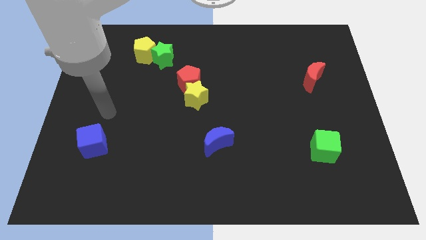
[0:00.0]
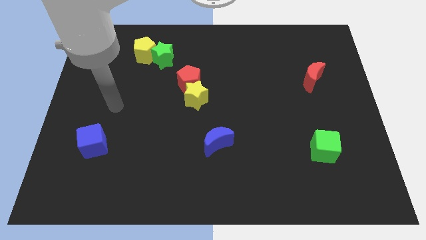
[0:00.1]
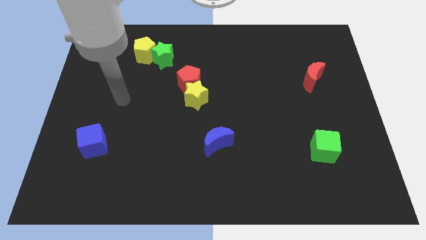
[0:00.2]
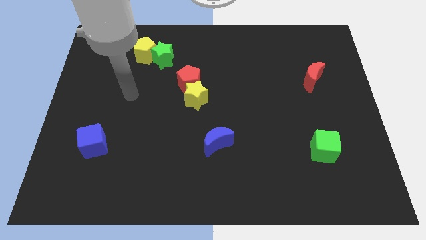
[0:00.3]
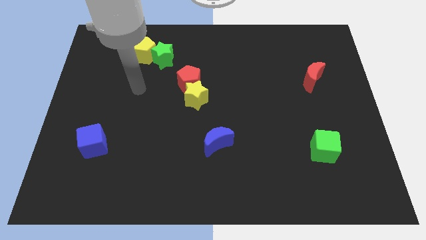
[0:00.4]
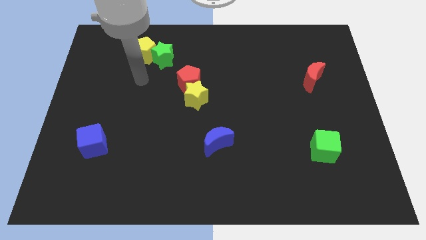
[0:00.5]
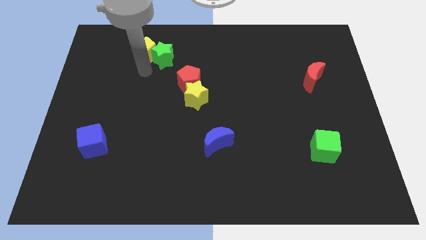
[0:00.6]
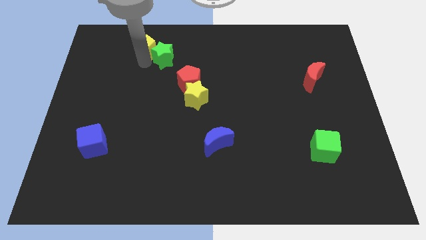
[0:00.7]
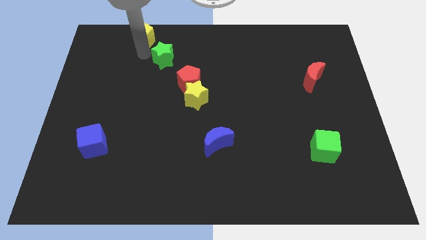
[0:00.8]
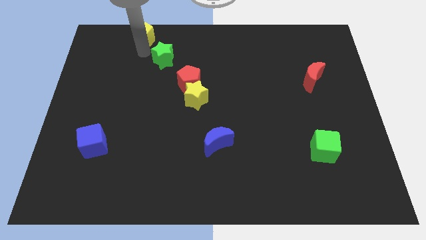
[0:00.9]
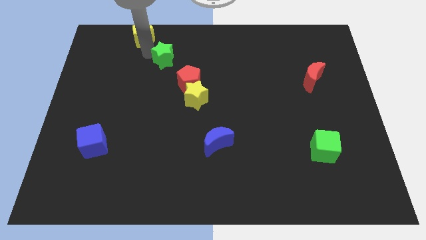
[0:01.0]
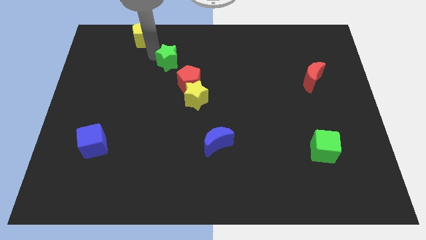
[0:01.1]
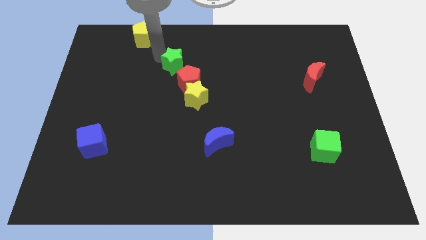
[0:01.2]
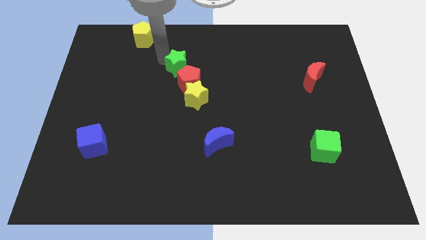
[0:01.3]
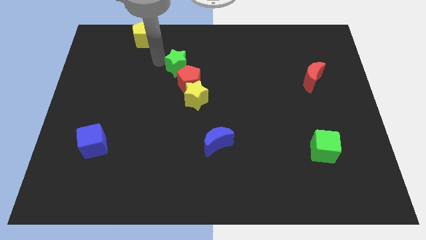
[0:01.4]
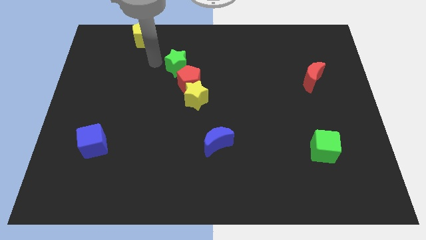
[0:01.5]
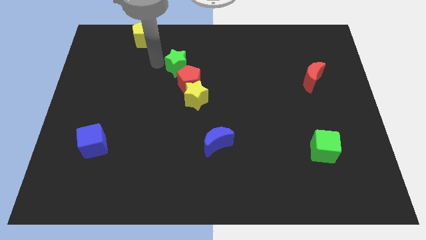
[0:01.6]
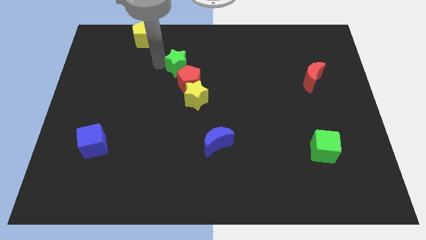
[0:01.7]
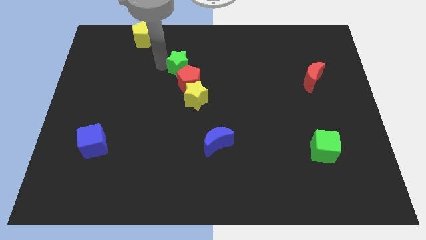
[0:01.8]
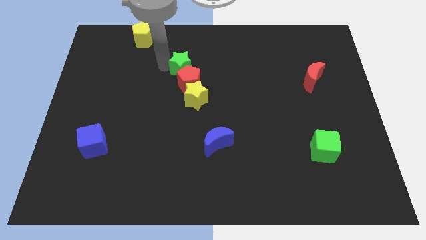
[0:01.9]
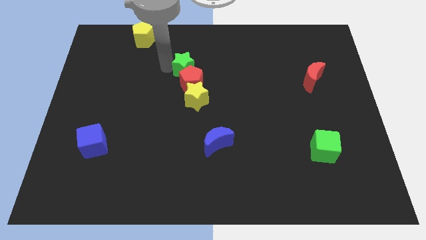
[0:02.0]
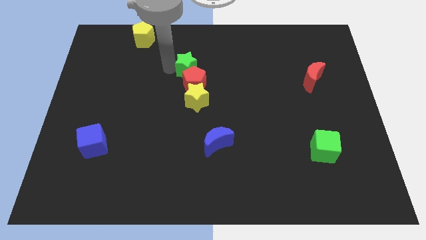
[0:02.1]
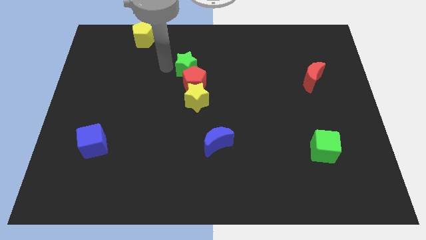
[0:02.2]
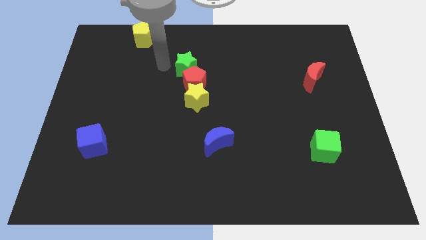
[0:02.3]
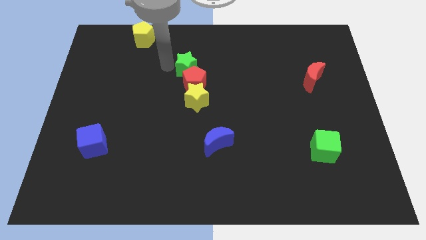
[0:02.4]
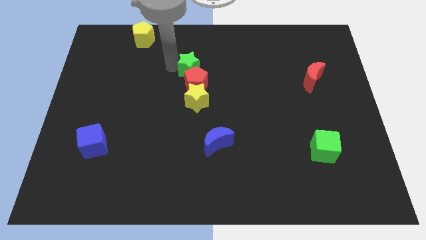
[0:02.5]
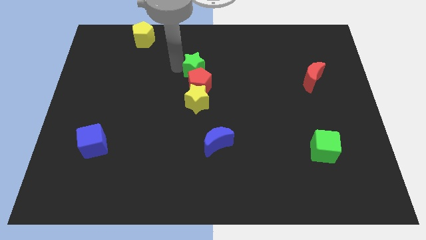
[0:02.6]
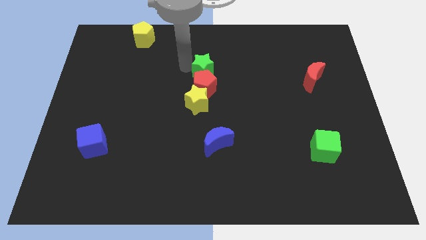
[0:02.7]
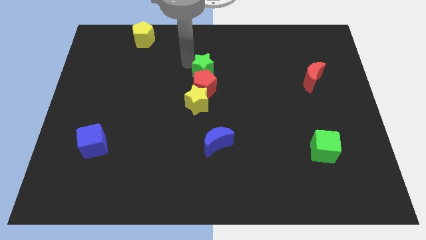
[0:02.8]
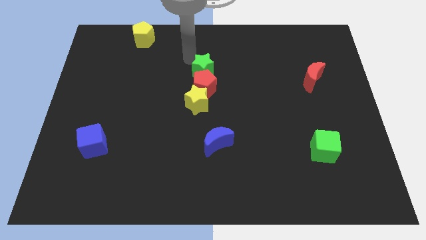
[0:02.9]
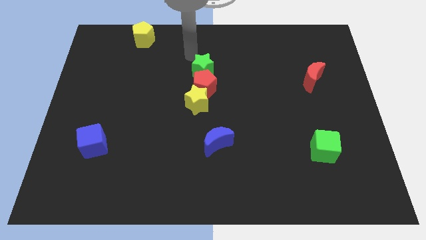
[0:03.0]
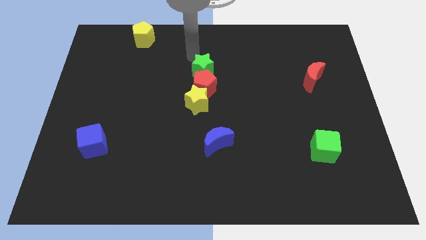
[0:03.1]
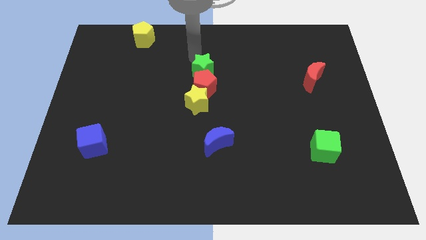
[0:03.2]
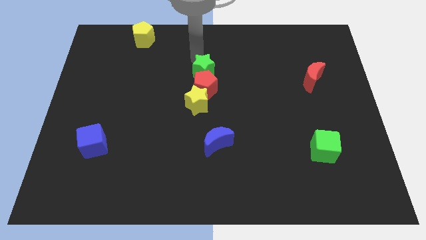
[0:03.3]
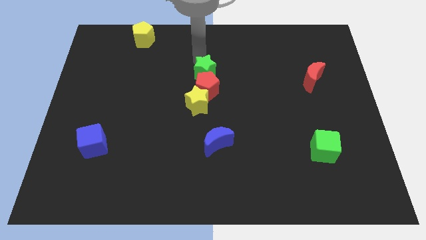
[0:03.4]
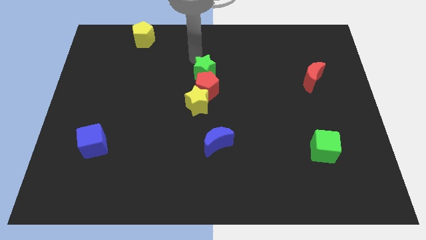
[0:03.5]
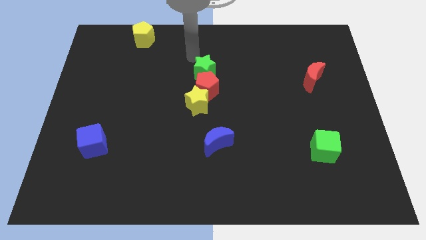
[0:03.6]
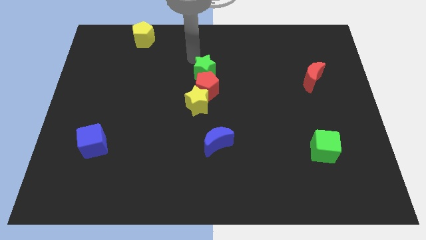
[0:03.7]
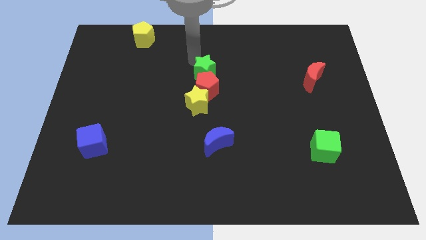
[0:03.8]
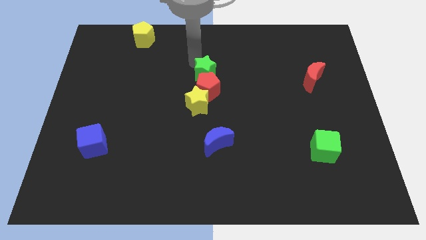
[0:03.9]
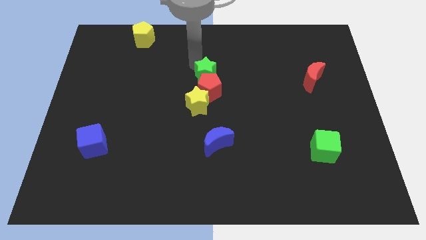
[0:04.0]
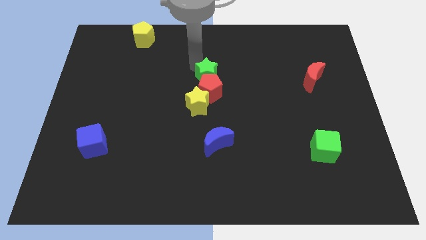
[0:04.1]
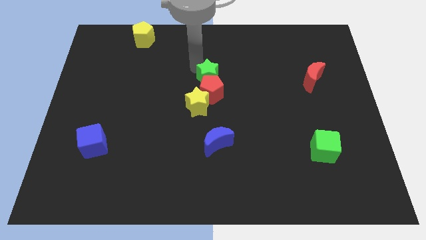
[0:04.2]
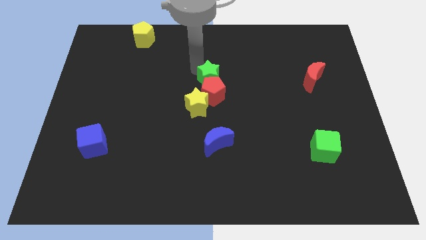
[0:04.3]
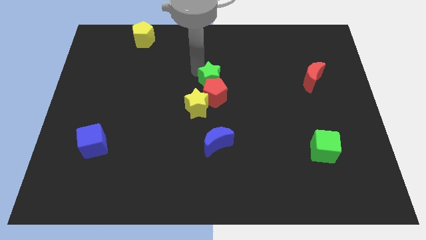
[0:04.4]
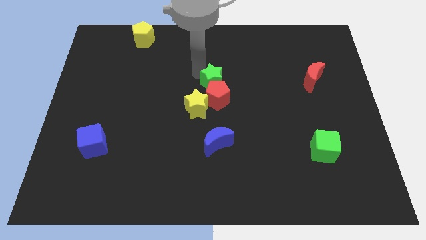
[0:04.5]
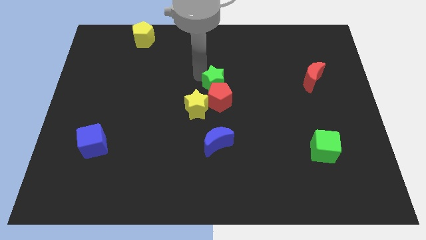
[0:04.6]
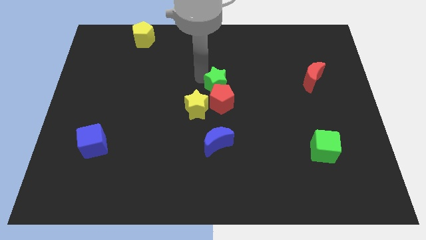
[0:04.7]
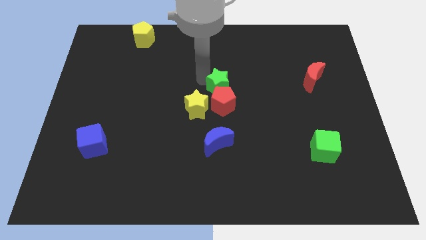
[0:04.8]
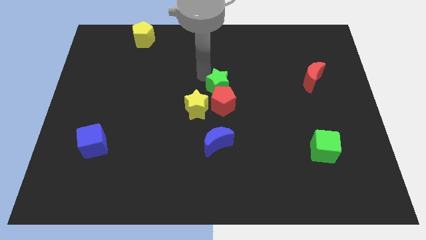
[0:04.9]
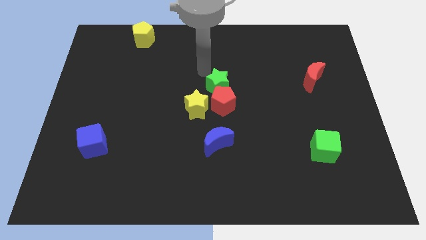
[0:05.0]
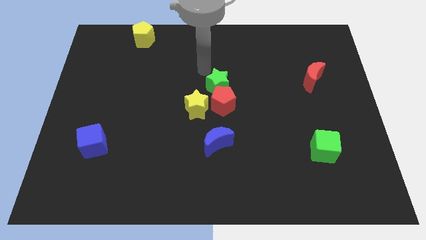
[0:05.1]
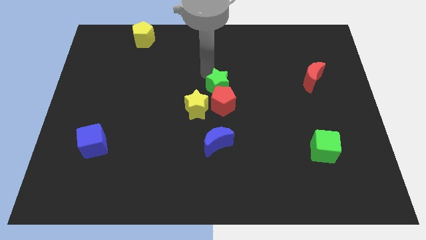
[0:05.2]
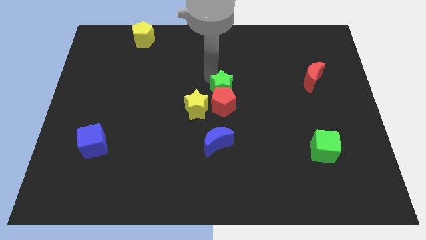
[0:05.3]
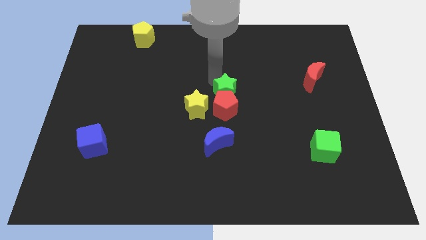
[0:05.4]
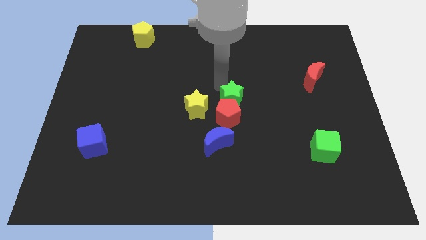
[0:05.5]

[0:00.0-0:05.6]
slide the green star down and then to the right

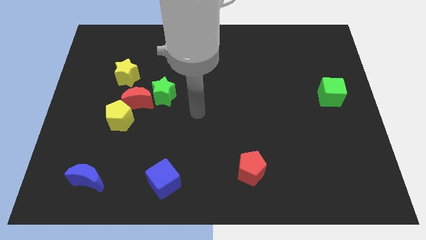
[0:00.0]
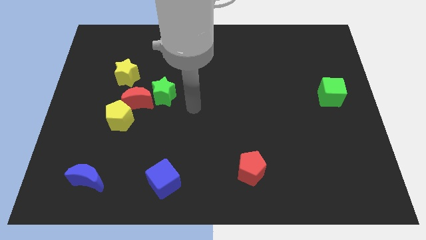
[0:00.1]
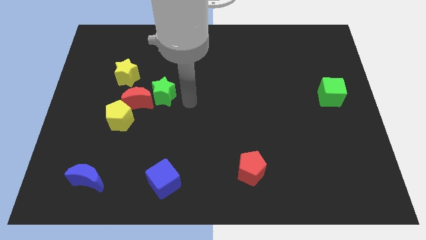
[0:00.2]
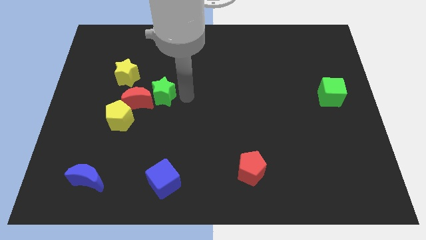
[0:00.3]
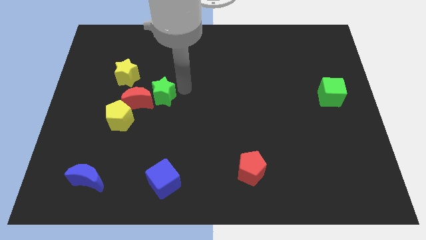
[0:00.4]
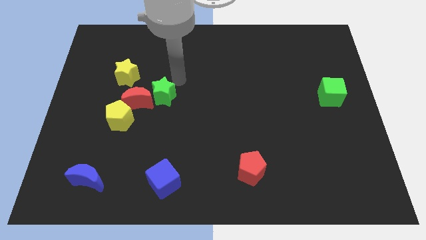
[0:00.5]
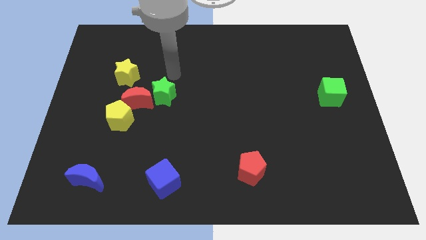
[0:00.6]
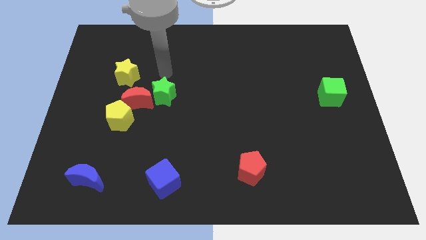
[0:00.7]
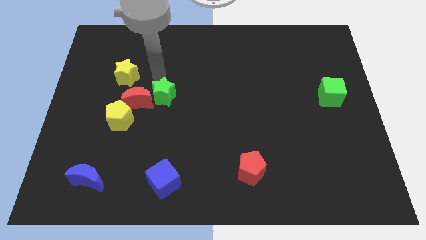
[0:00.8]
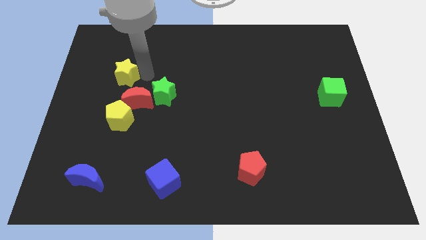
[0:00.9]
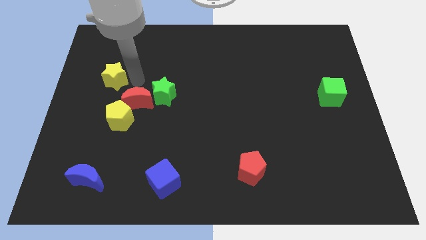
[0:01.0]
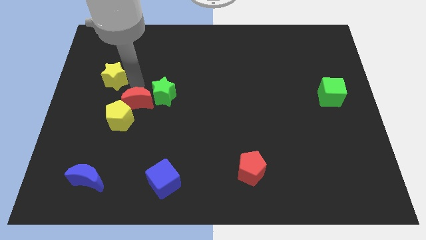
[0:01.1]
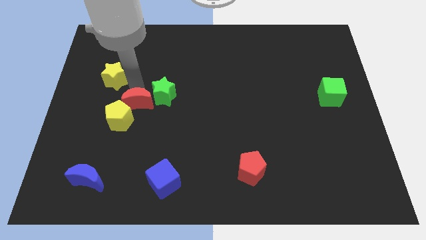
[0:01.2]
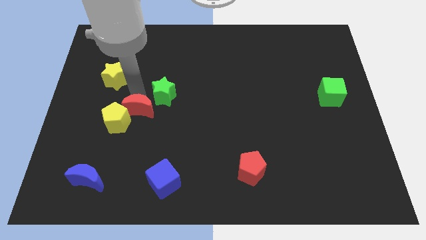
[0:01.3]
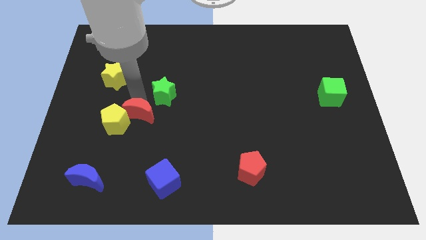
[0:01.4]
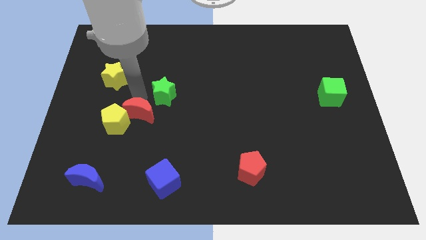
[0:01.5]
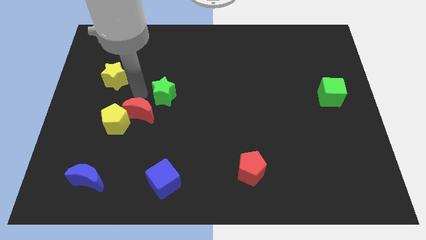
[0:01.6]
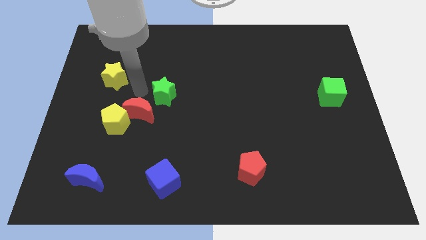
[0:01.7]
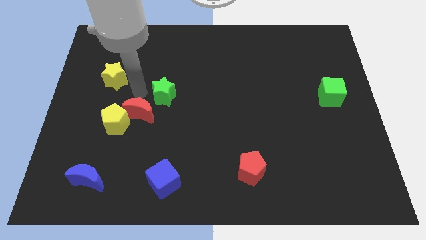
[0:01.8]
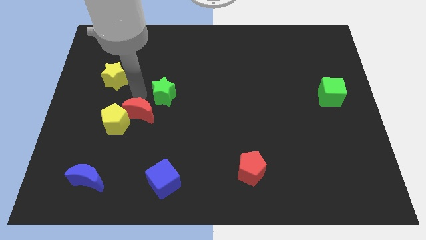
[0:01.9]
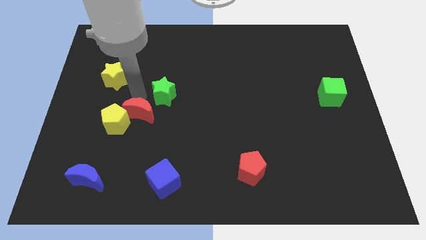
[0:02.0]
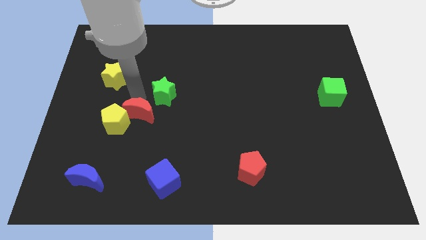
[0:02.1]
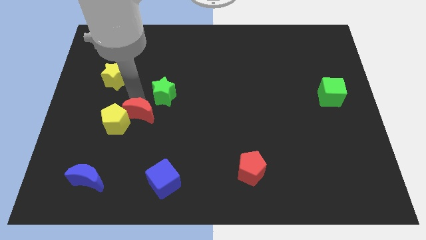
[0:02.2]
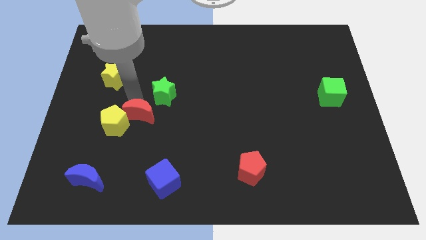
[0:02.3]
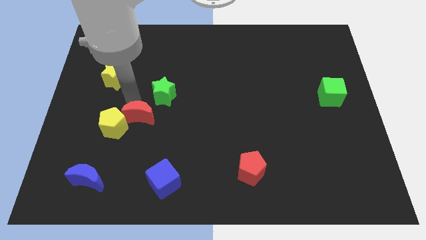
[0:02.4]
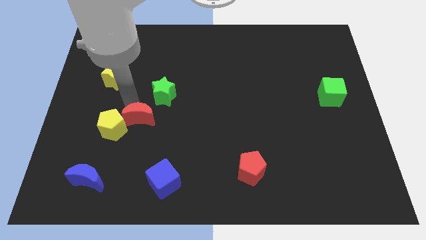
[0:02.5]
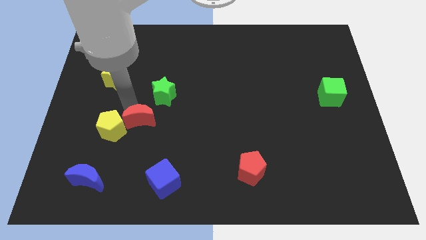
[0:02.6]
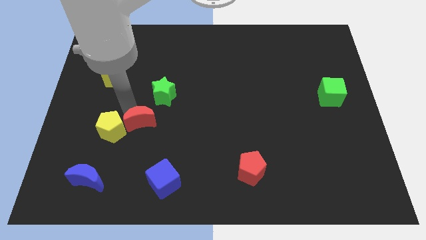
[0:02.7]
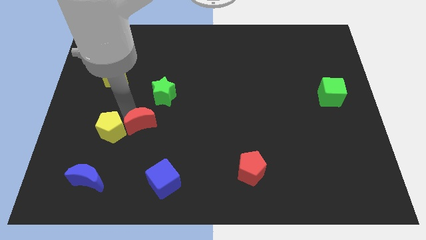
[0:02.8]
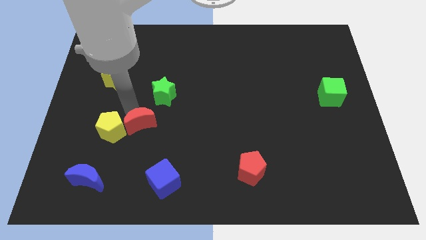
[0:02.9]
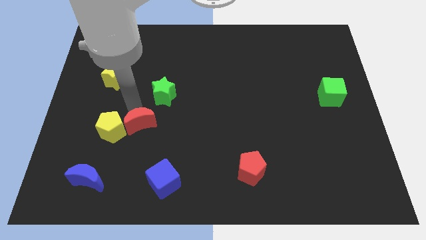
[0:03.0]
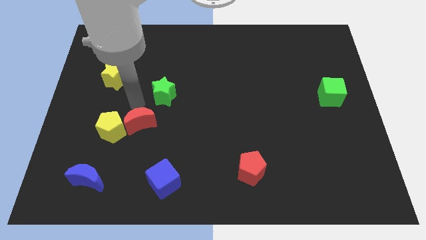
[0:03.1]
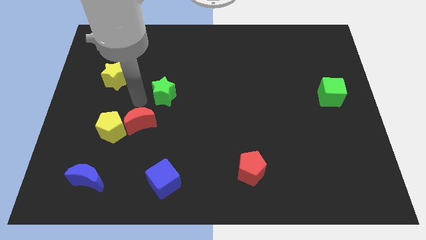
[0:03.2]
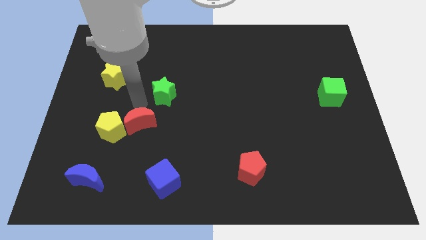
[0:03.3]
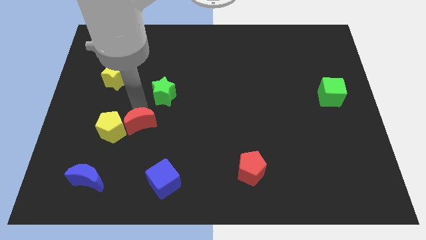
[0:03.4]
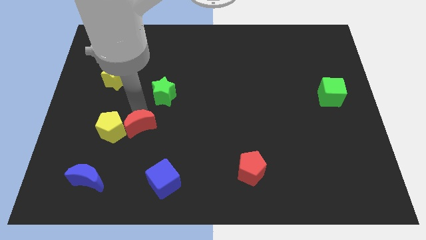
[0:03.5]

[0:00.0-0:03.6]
move the red moon down slightly
